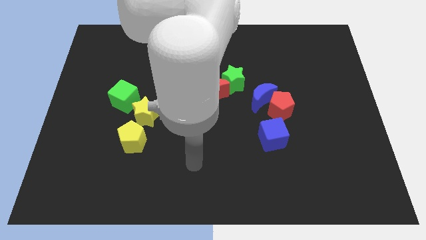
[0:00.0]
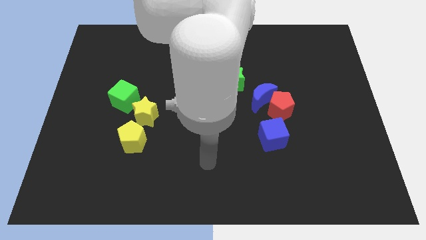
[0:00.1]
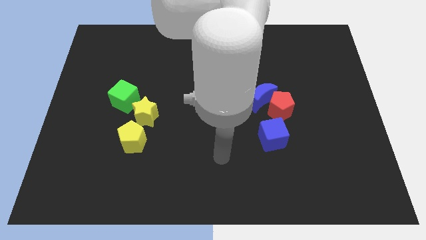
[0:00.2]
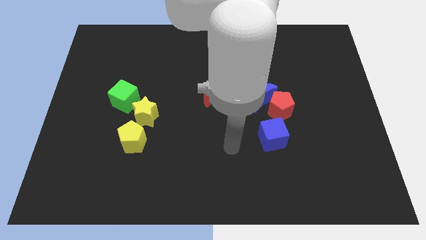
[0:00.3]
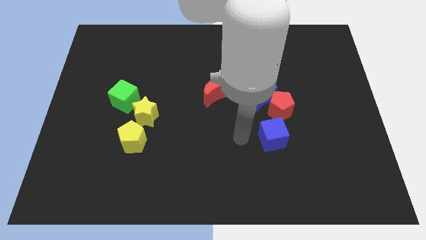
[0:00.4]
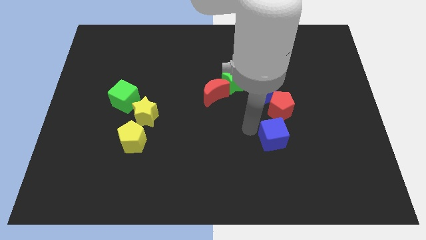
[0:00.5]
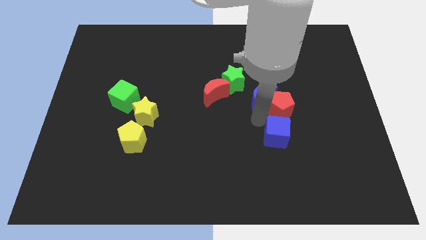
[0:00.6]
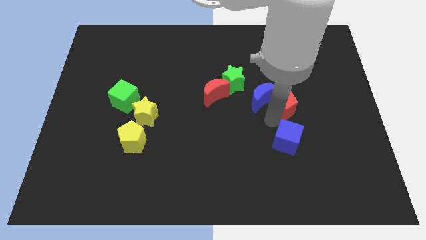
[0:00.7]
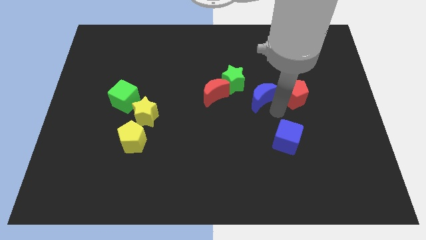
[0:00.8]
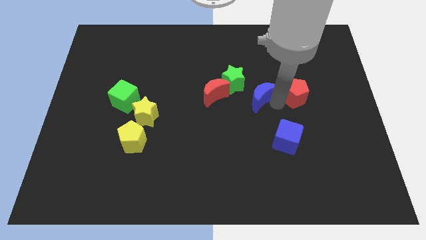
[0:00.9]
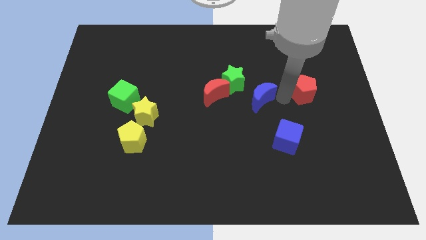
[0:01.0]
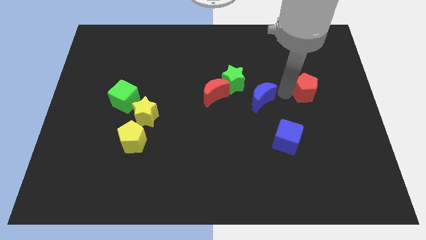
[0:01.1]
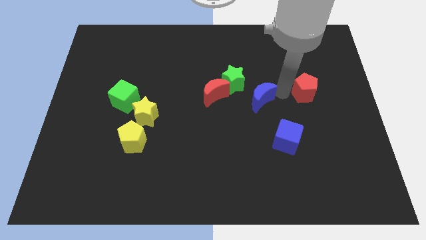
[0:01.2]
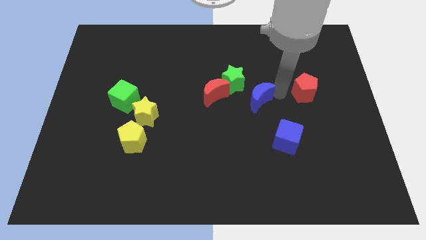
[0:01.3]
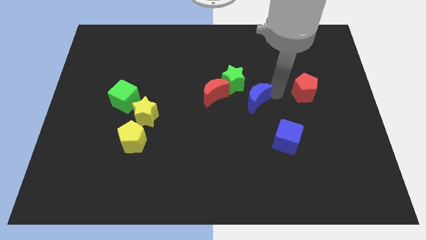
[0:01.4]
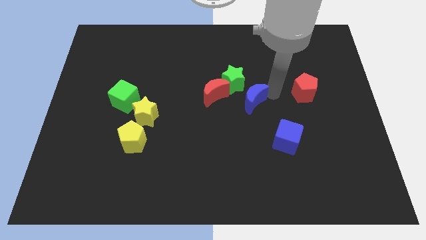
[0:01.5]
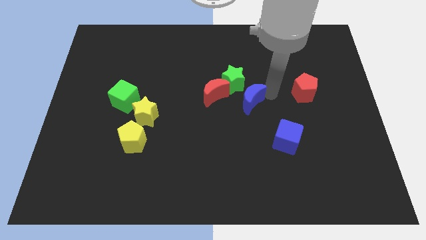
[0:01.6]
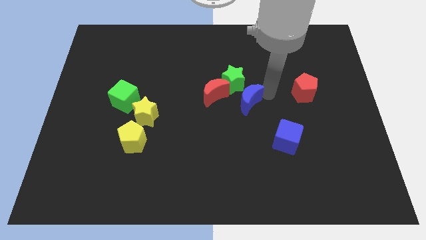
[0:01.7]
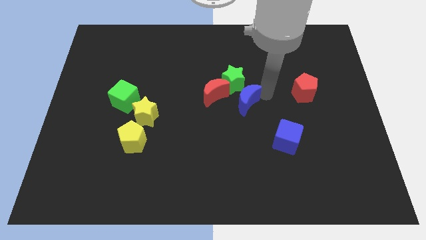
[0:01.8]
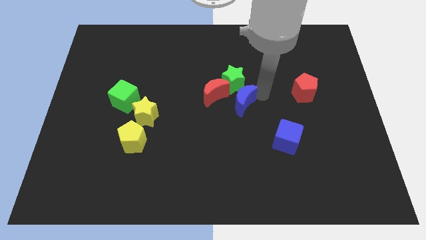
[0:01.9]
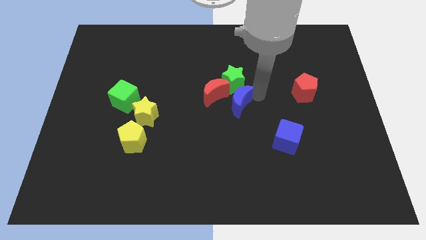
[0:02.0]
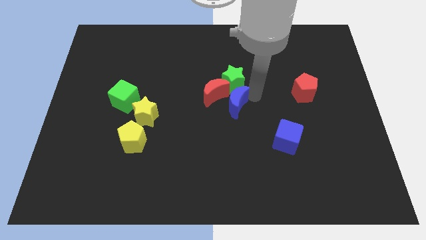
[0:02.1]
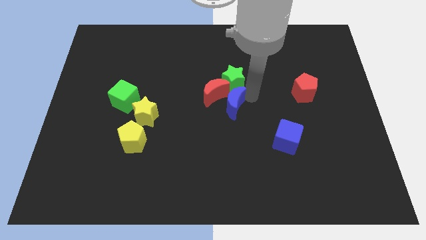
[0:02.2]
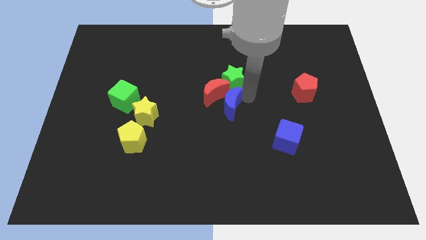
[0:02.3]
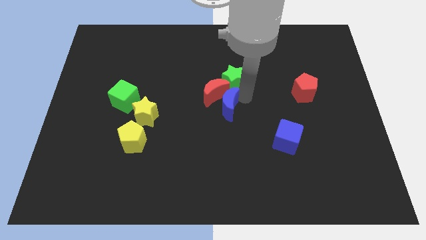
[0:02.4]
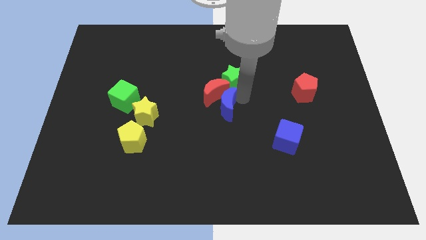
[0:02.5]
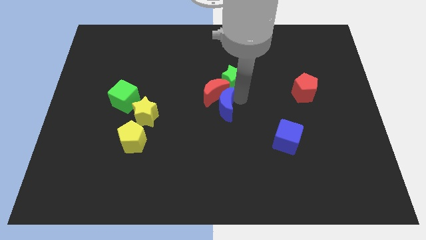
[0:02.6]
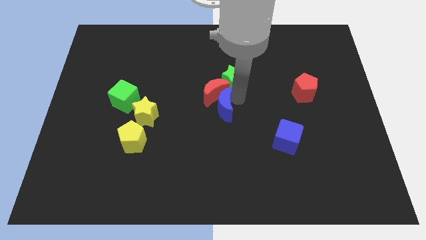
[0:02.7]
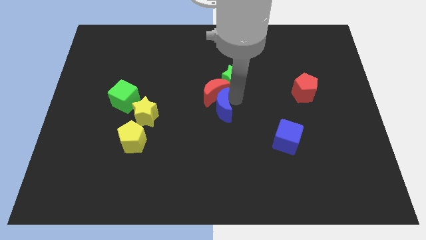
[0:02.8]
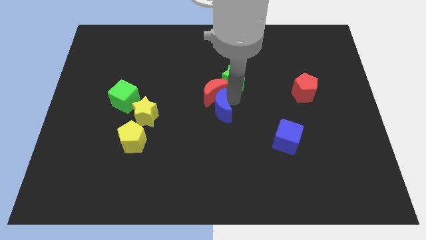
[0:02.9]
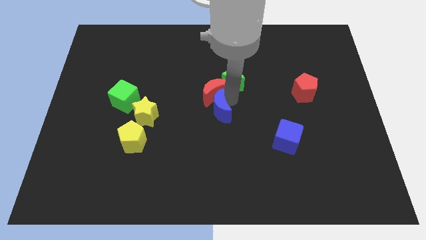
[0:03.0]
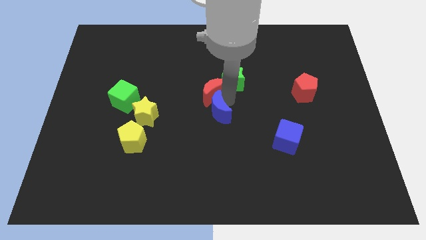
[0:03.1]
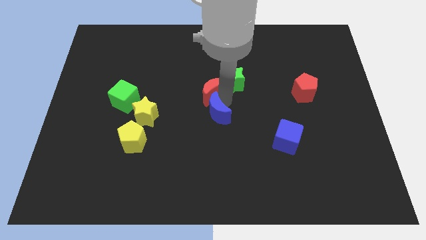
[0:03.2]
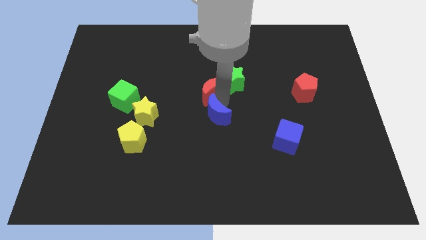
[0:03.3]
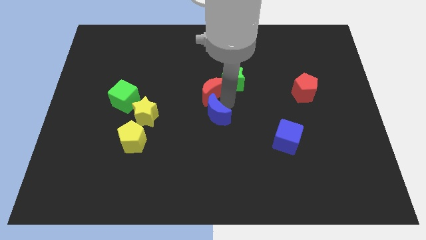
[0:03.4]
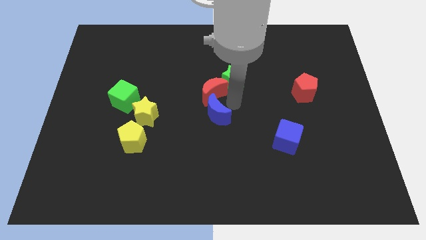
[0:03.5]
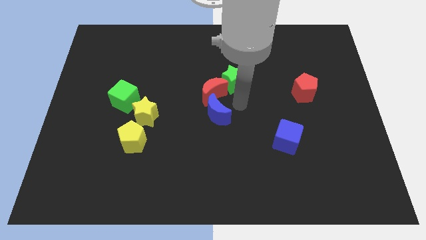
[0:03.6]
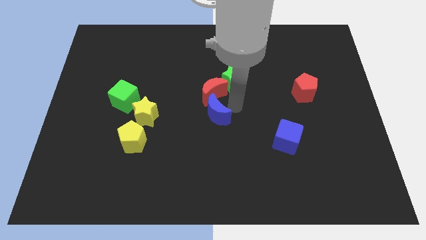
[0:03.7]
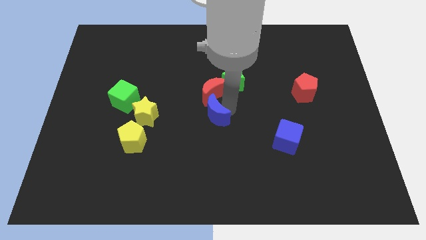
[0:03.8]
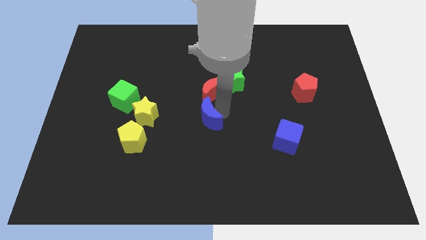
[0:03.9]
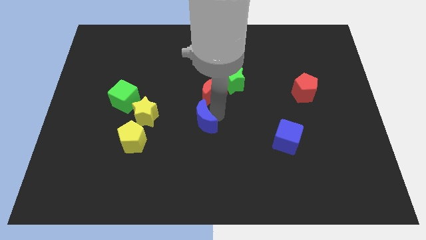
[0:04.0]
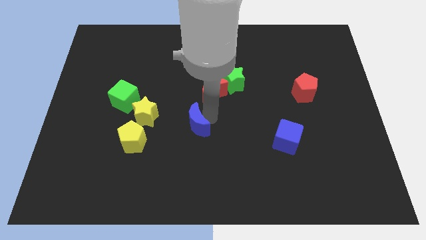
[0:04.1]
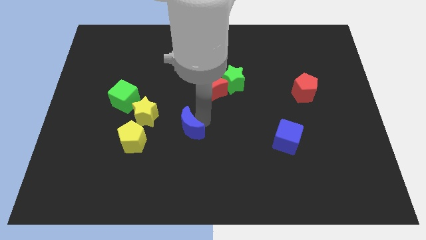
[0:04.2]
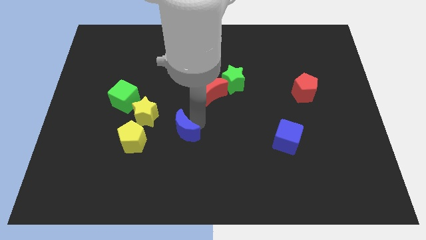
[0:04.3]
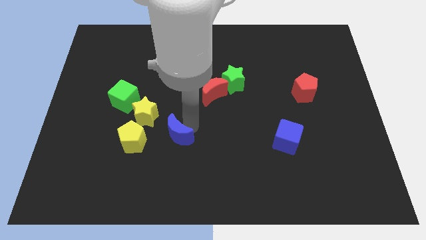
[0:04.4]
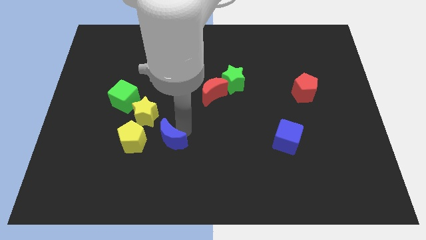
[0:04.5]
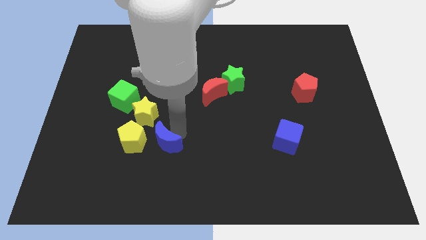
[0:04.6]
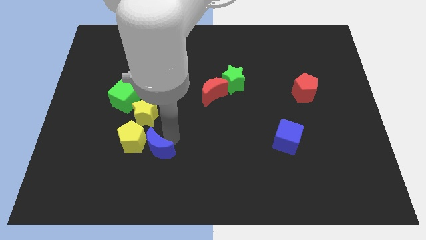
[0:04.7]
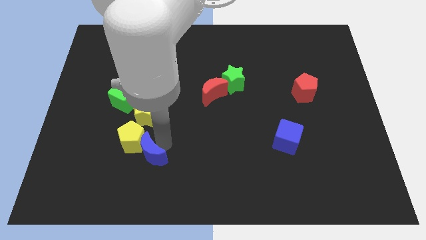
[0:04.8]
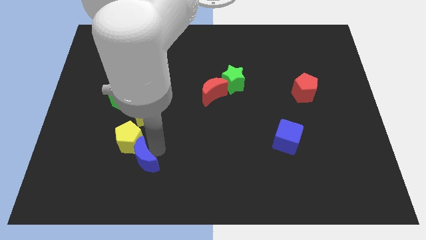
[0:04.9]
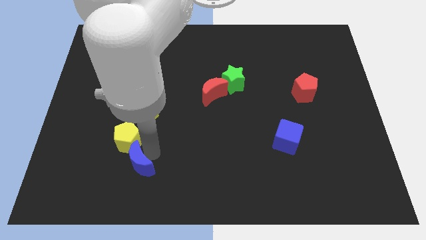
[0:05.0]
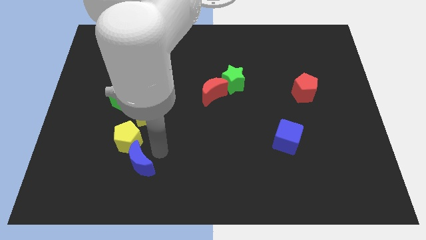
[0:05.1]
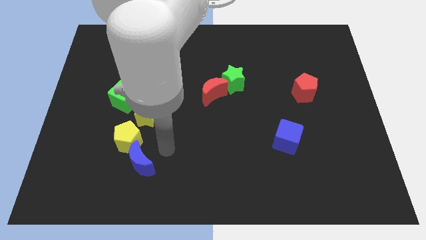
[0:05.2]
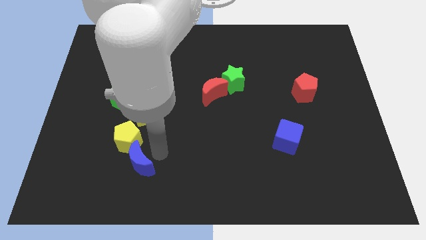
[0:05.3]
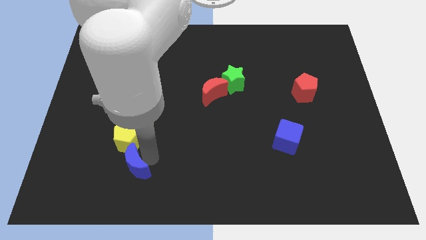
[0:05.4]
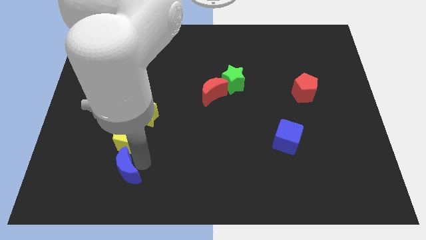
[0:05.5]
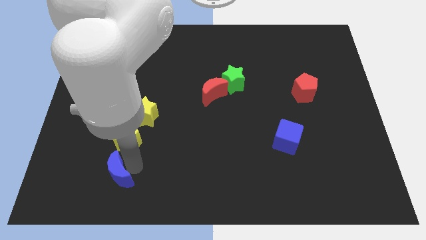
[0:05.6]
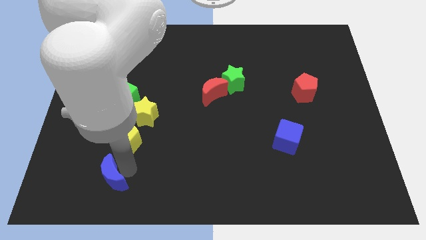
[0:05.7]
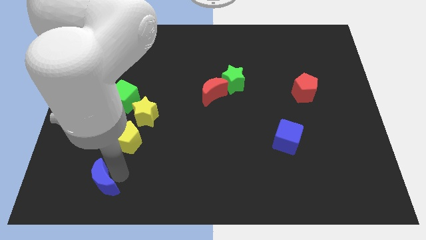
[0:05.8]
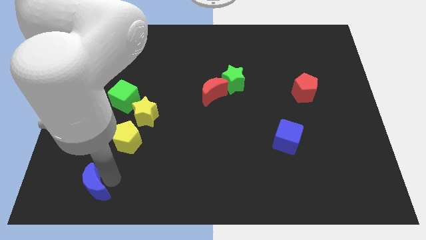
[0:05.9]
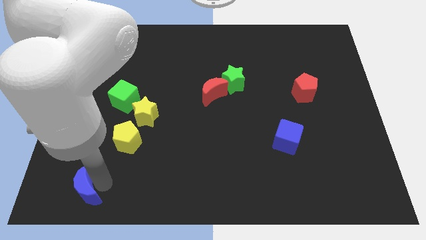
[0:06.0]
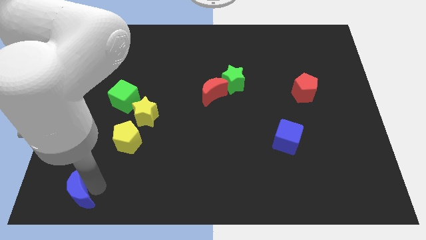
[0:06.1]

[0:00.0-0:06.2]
push the blue moon to the bottom left of the board

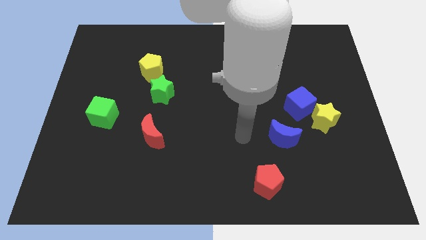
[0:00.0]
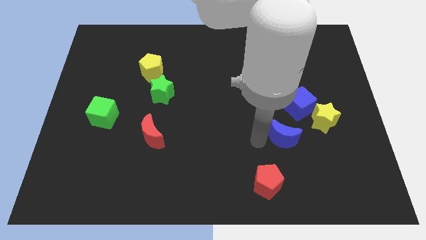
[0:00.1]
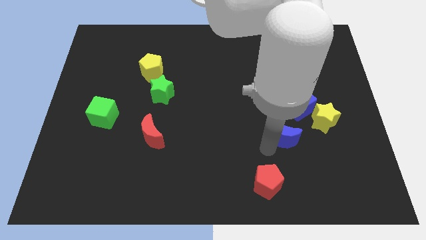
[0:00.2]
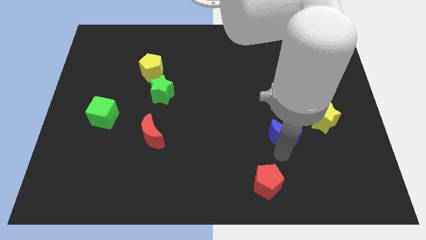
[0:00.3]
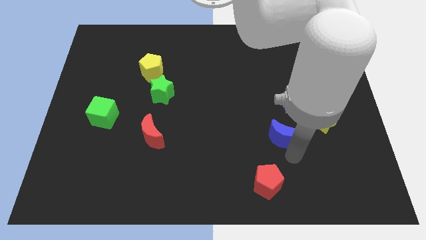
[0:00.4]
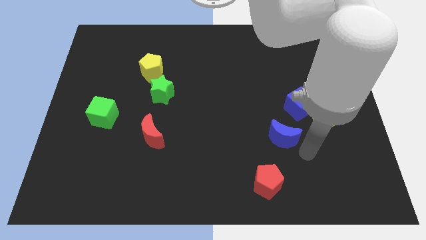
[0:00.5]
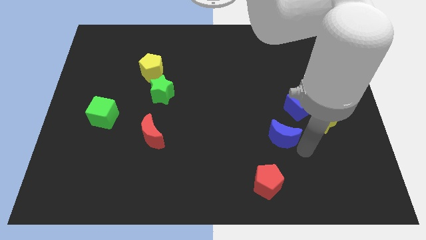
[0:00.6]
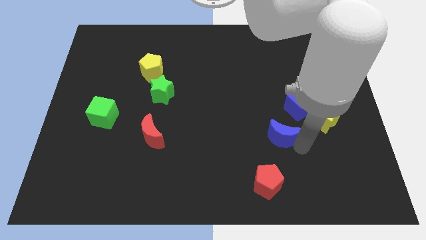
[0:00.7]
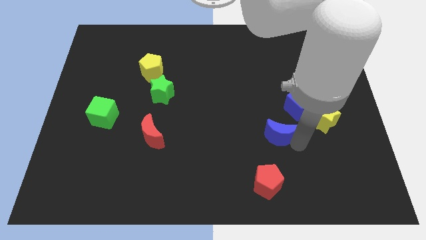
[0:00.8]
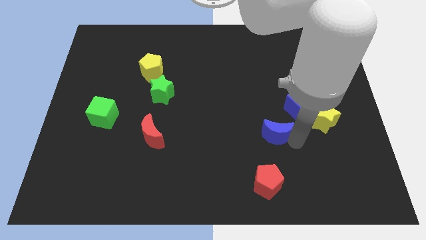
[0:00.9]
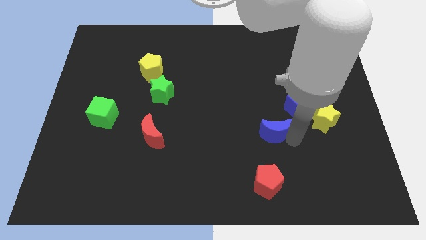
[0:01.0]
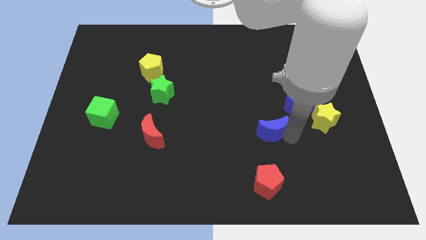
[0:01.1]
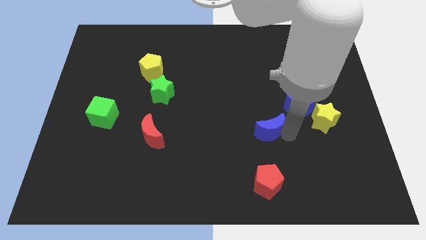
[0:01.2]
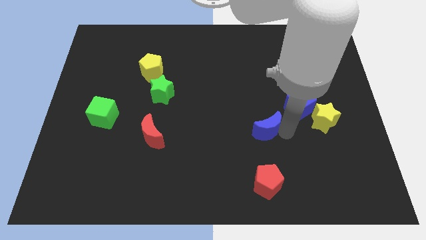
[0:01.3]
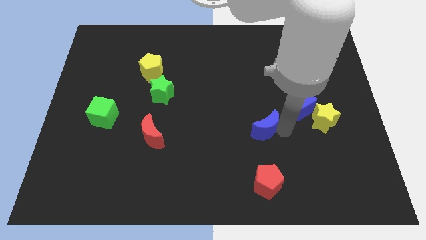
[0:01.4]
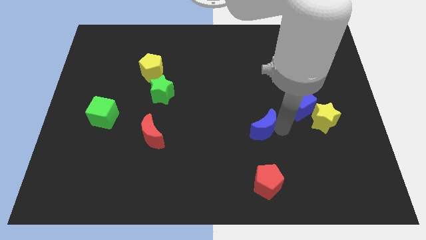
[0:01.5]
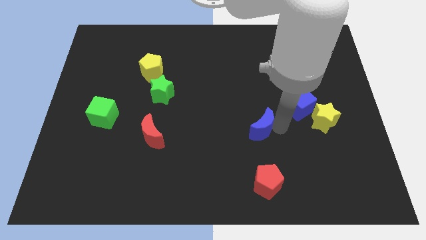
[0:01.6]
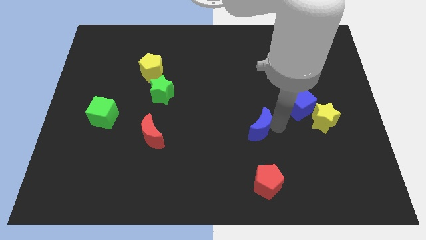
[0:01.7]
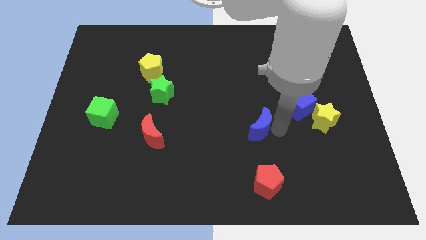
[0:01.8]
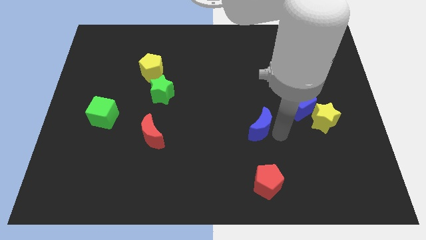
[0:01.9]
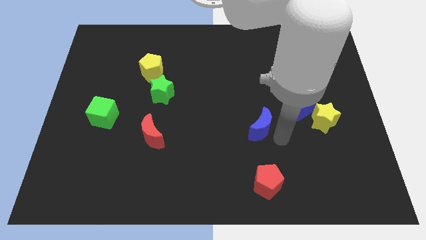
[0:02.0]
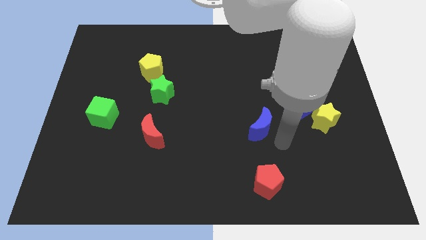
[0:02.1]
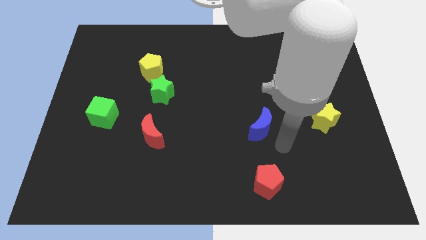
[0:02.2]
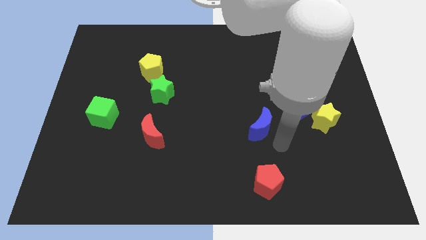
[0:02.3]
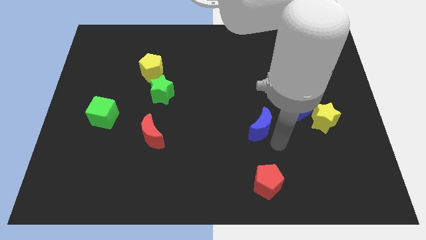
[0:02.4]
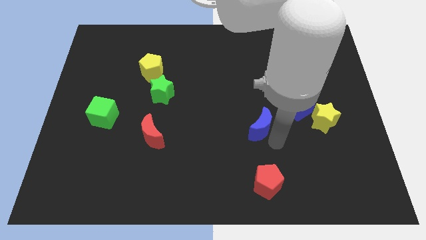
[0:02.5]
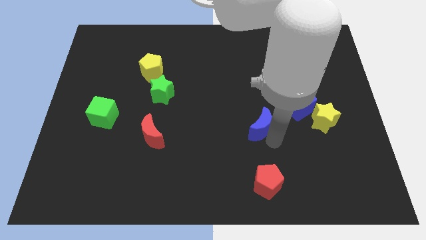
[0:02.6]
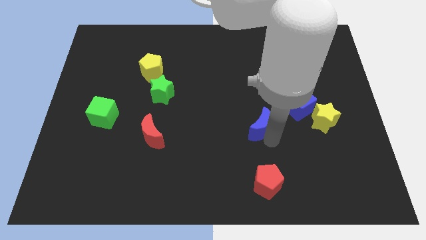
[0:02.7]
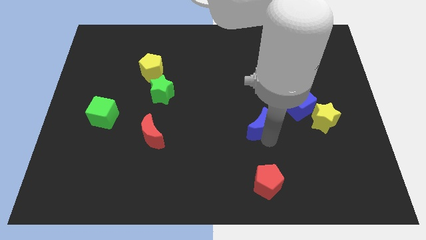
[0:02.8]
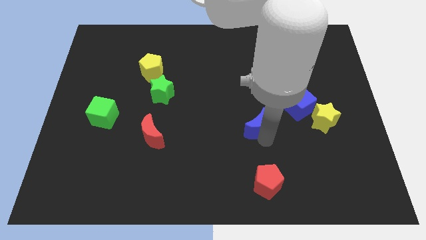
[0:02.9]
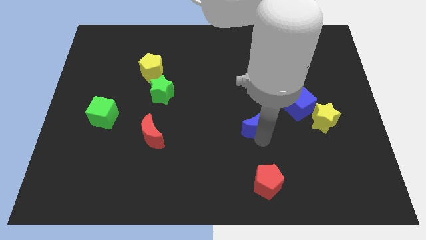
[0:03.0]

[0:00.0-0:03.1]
put the blue moon to the center
